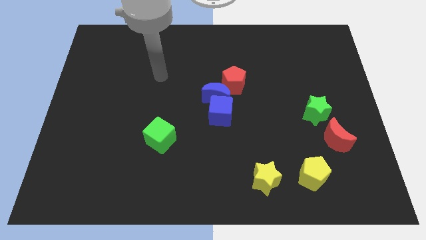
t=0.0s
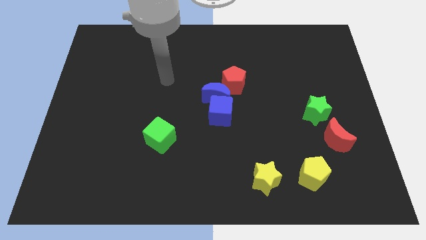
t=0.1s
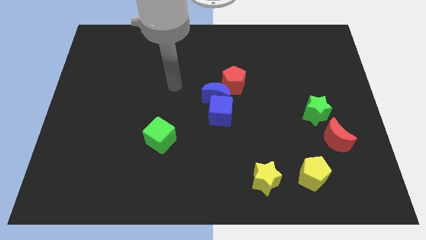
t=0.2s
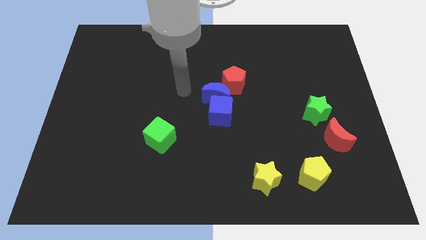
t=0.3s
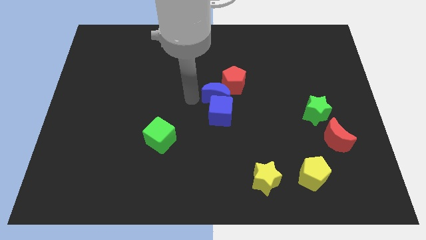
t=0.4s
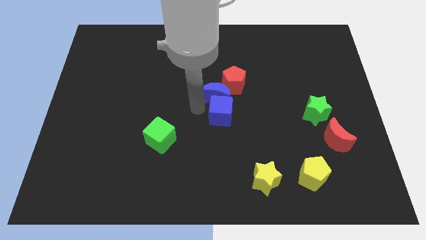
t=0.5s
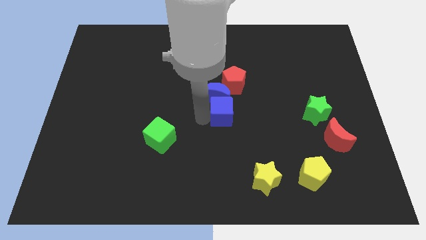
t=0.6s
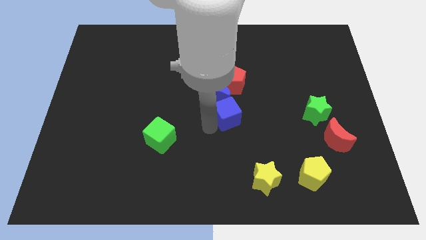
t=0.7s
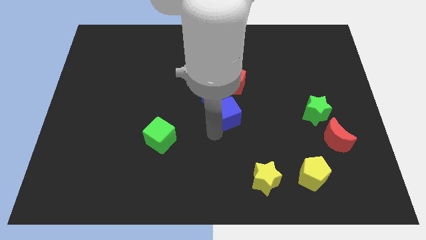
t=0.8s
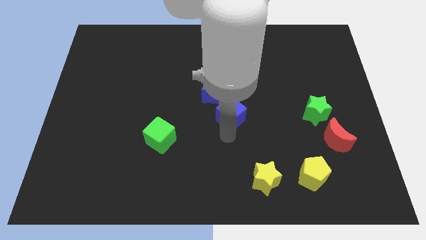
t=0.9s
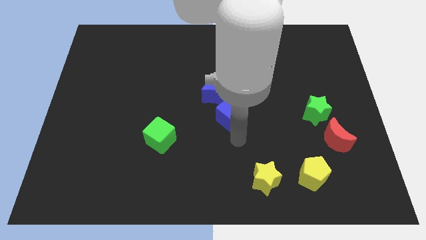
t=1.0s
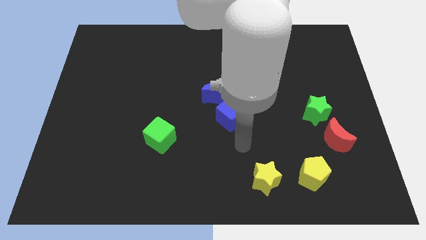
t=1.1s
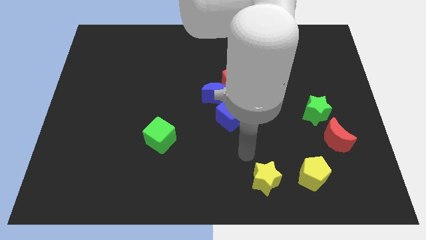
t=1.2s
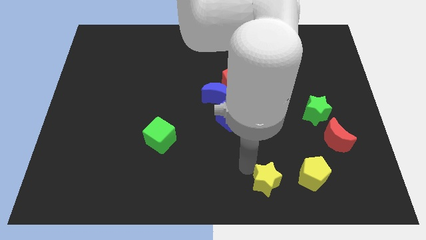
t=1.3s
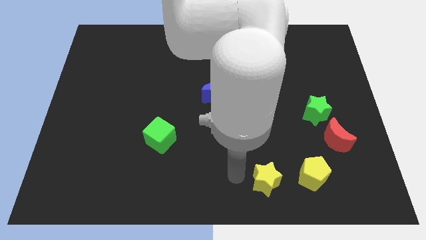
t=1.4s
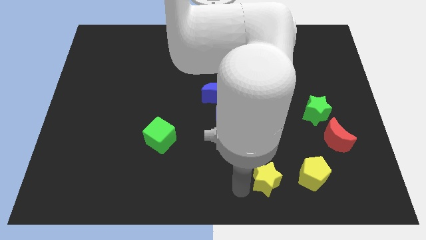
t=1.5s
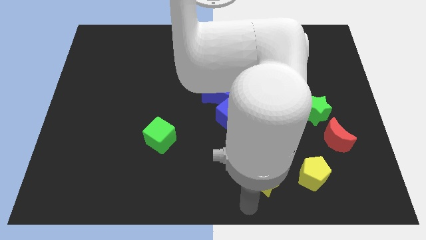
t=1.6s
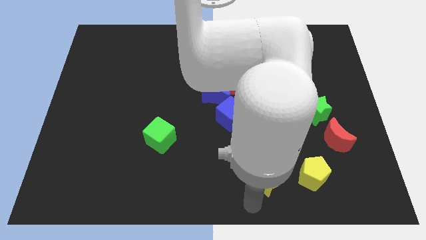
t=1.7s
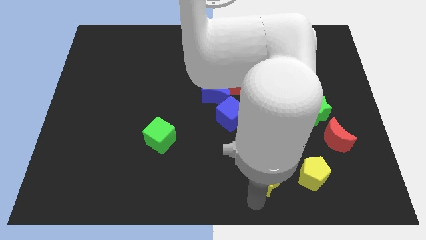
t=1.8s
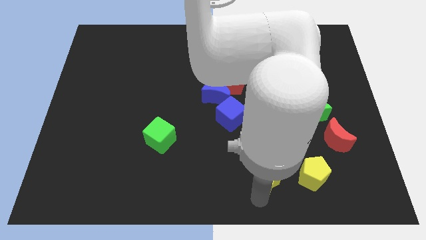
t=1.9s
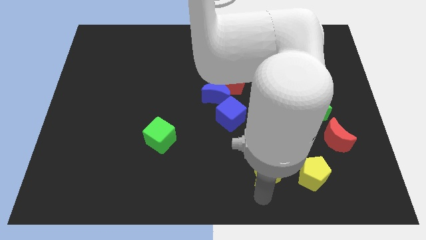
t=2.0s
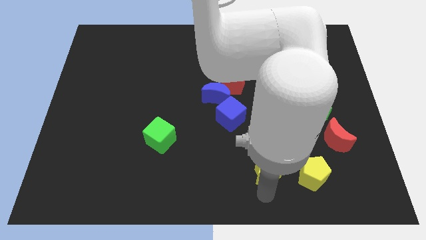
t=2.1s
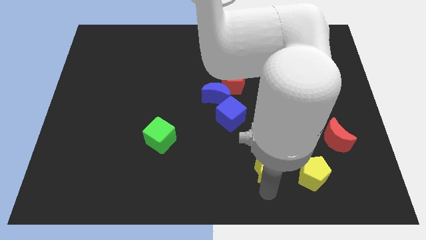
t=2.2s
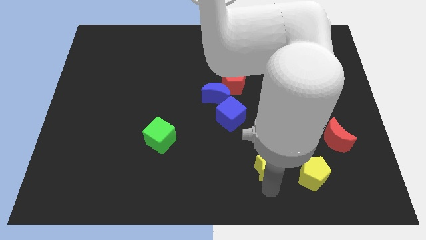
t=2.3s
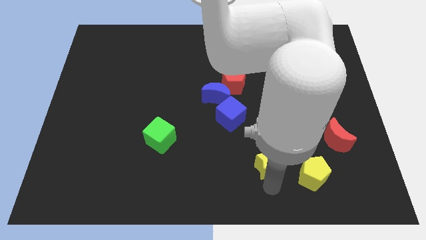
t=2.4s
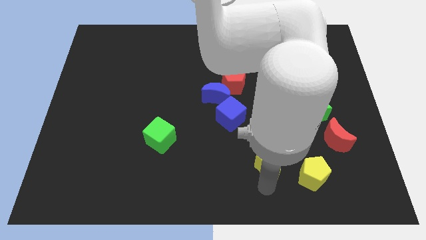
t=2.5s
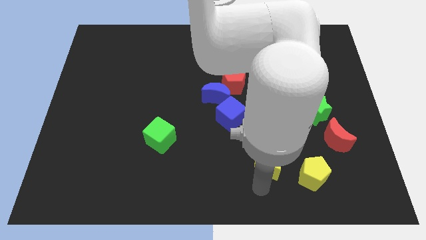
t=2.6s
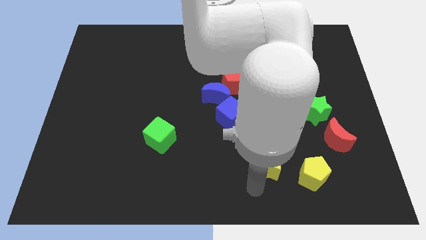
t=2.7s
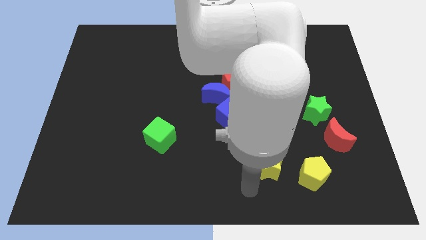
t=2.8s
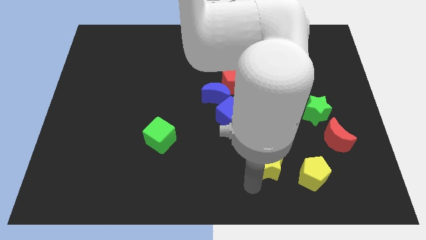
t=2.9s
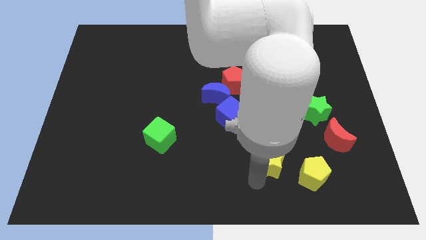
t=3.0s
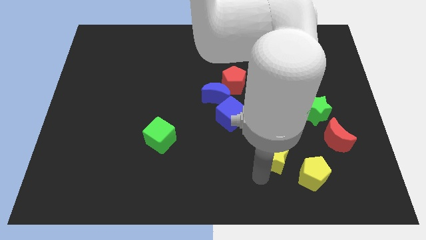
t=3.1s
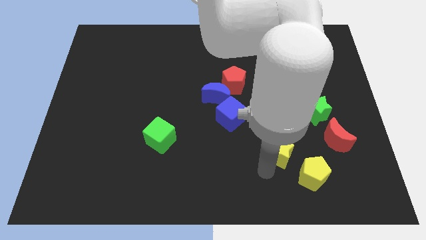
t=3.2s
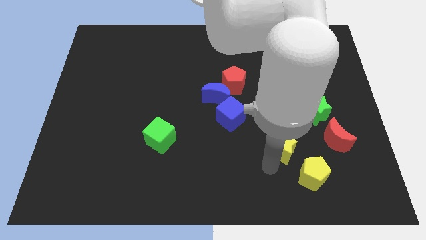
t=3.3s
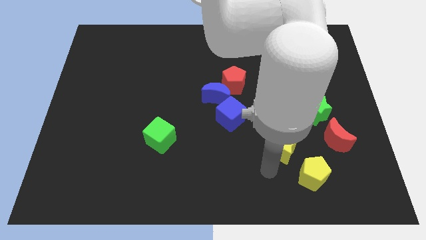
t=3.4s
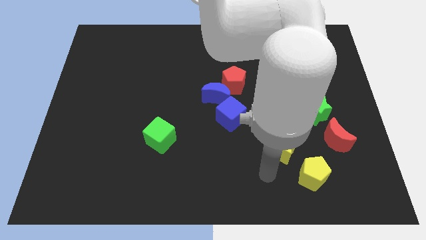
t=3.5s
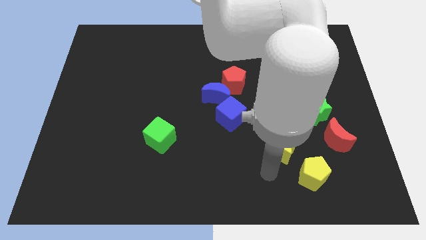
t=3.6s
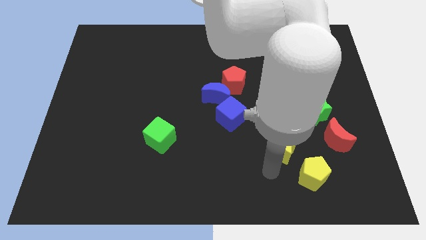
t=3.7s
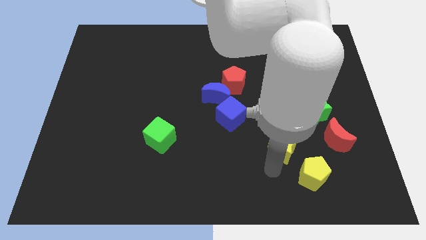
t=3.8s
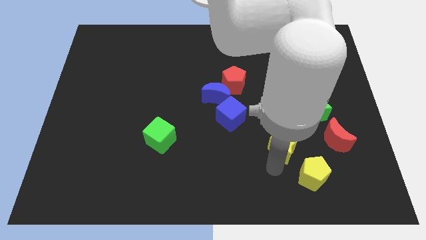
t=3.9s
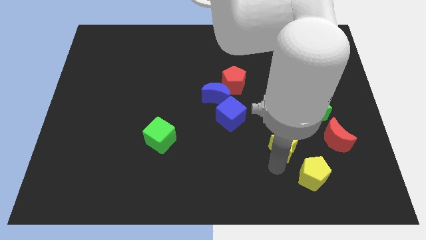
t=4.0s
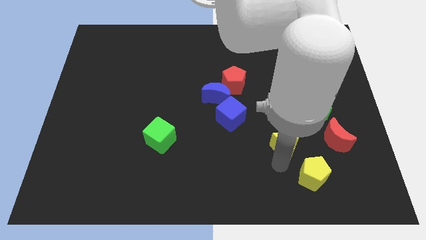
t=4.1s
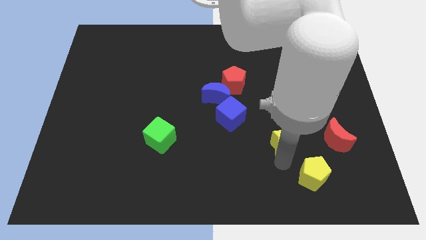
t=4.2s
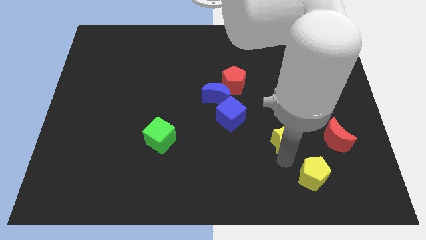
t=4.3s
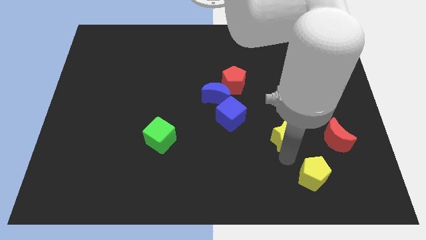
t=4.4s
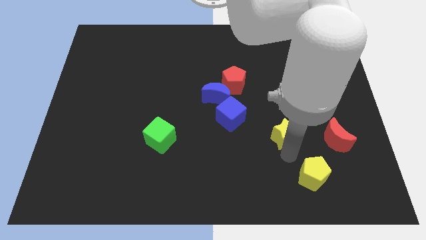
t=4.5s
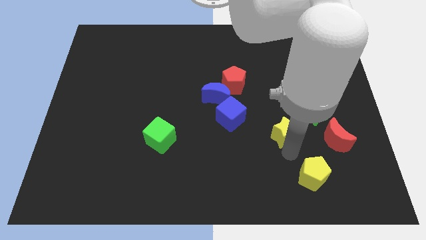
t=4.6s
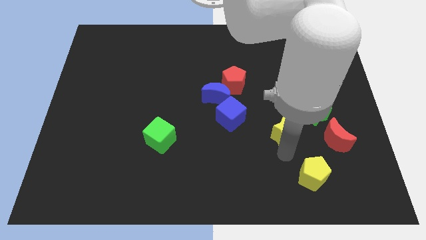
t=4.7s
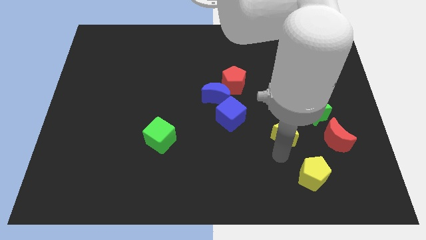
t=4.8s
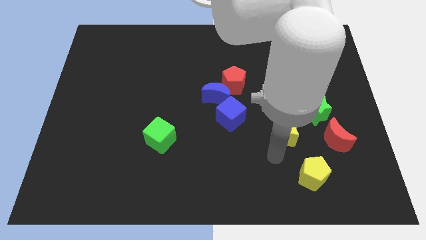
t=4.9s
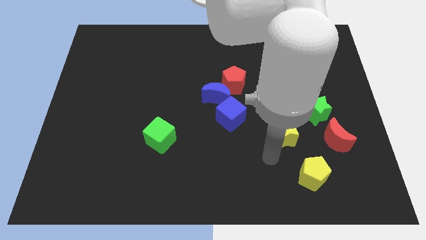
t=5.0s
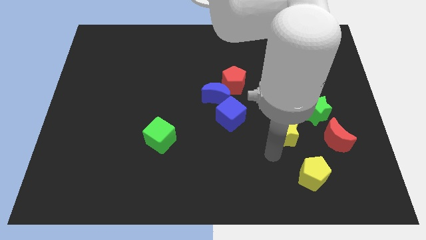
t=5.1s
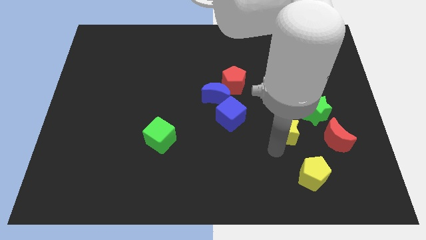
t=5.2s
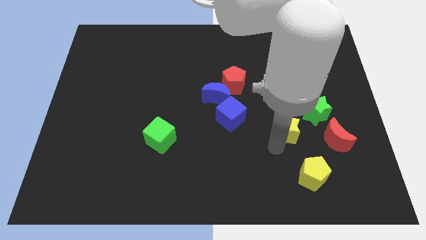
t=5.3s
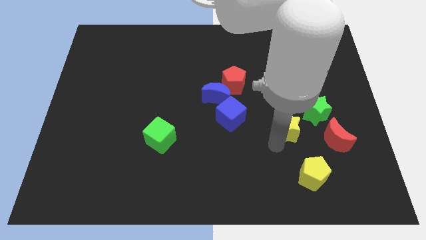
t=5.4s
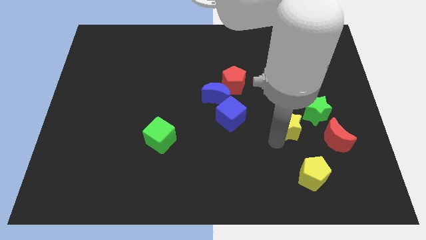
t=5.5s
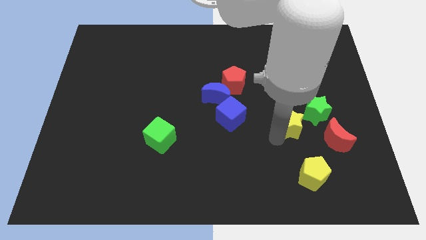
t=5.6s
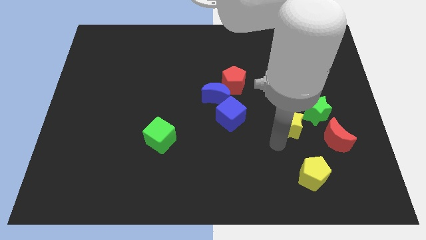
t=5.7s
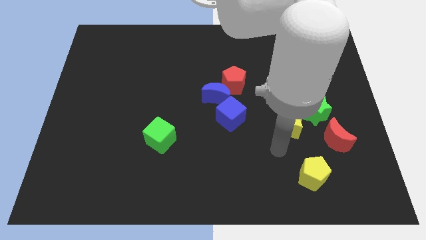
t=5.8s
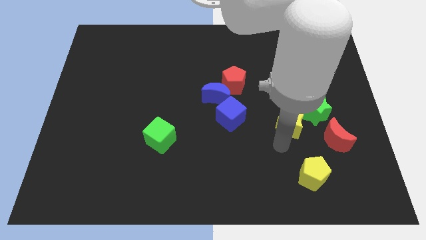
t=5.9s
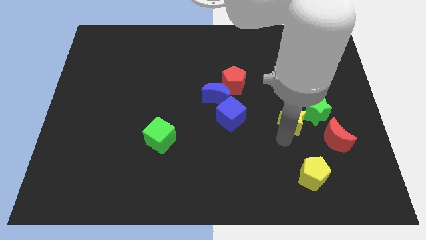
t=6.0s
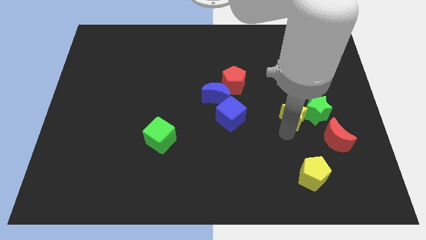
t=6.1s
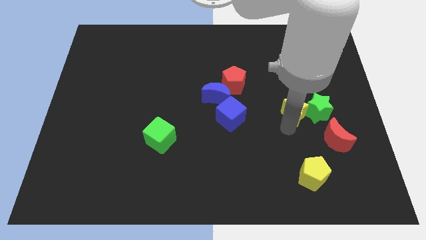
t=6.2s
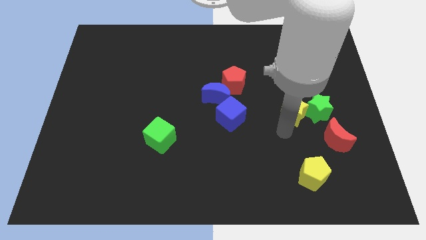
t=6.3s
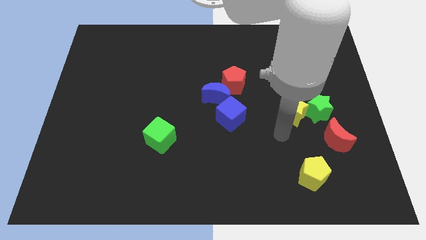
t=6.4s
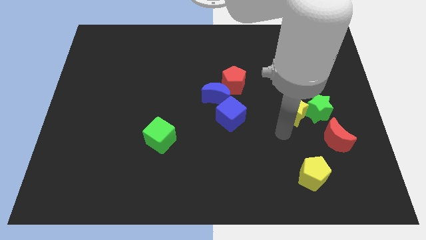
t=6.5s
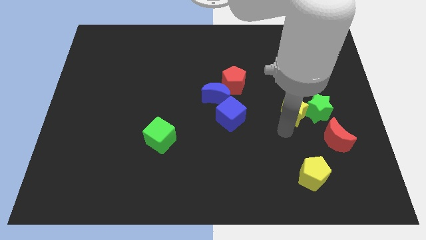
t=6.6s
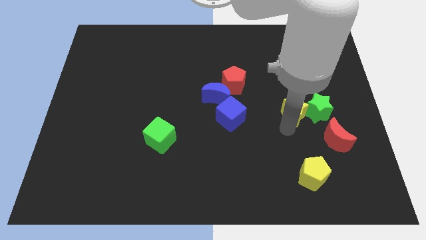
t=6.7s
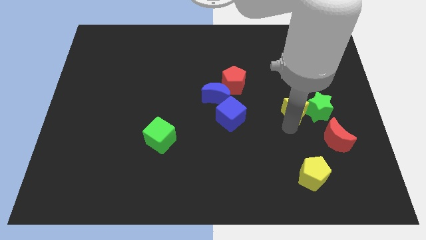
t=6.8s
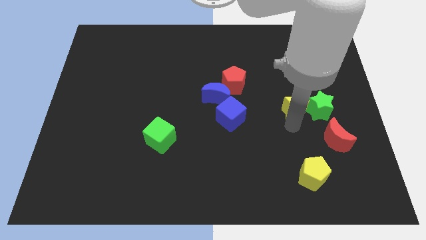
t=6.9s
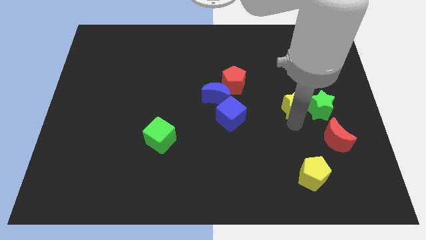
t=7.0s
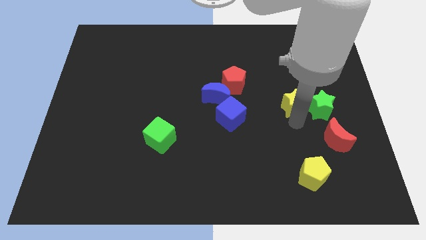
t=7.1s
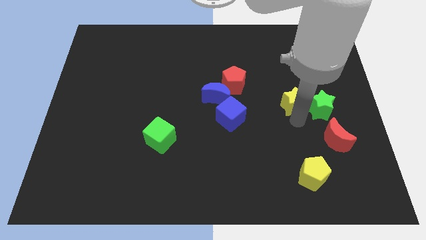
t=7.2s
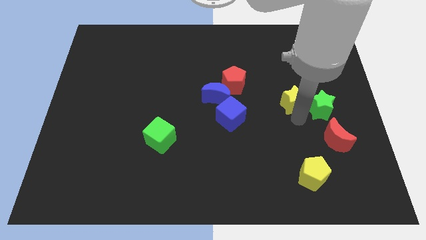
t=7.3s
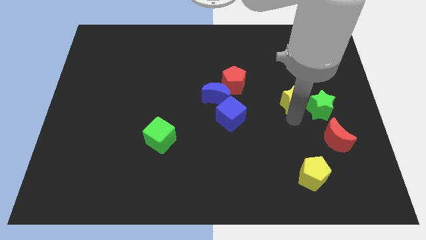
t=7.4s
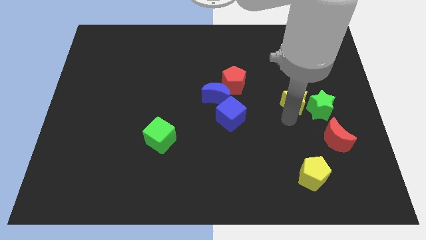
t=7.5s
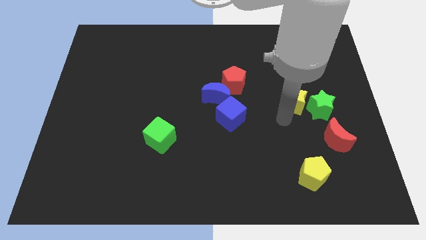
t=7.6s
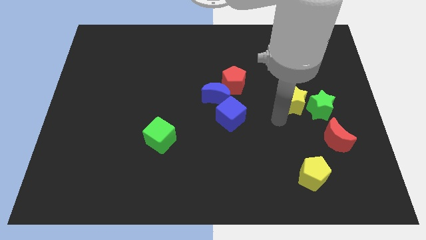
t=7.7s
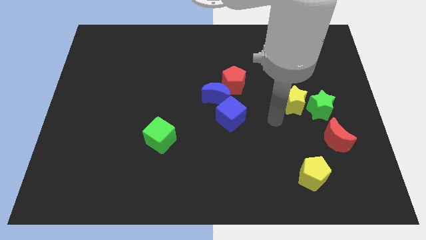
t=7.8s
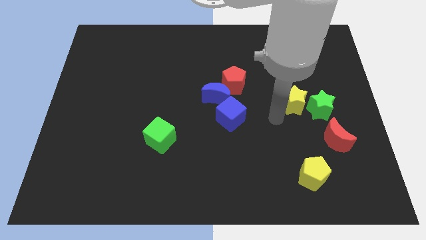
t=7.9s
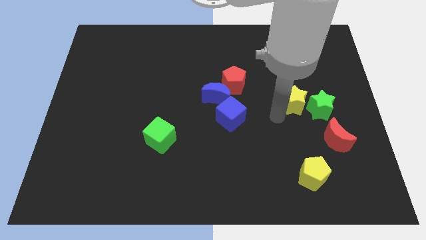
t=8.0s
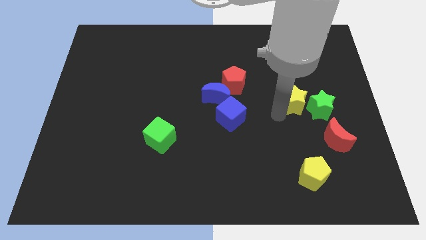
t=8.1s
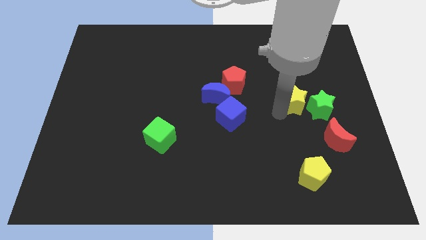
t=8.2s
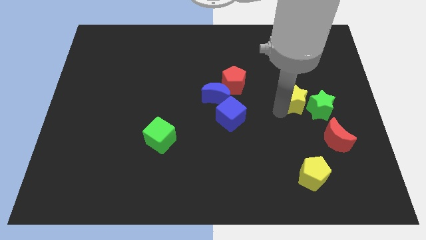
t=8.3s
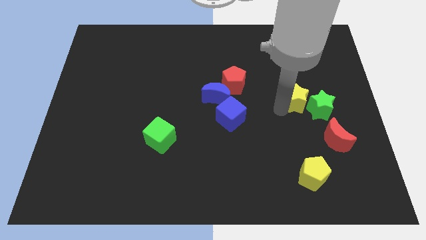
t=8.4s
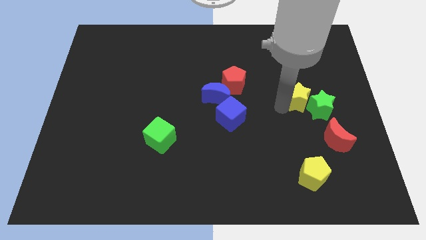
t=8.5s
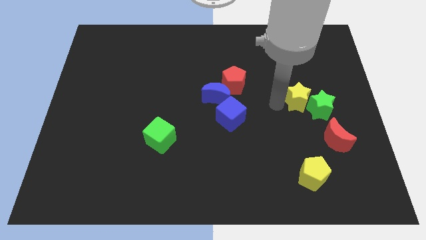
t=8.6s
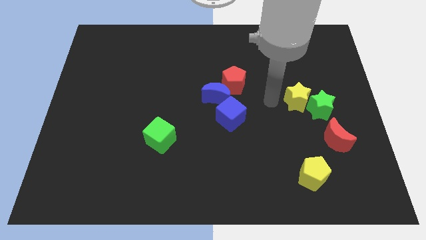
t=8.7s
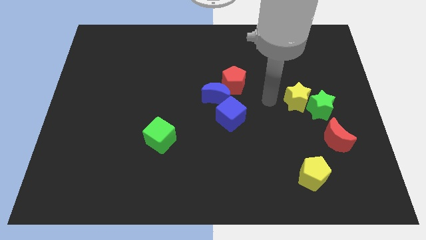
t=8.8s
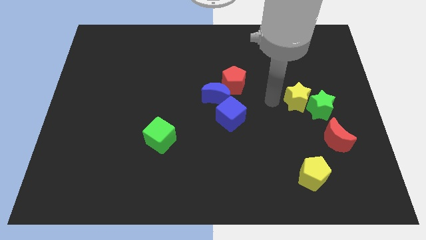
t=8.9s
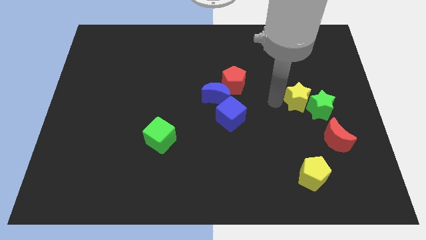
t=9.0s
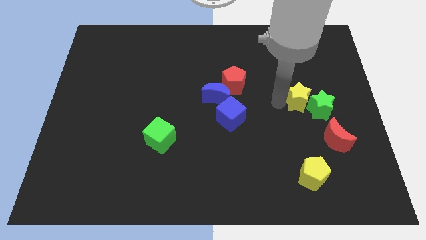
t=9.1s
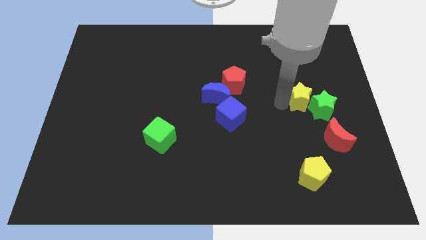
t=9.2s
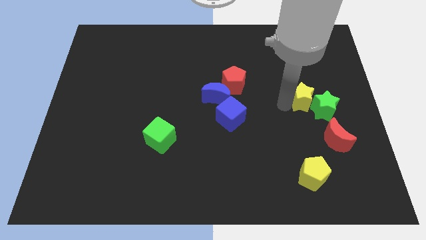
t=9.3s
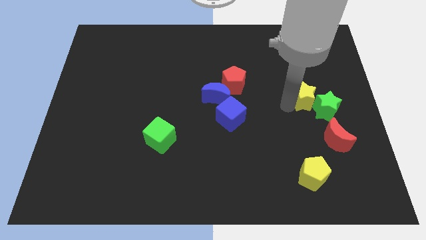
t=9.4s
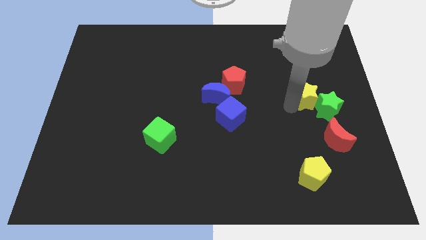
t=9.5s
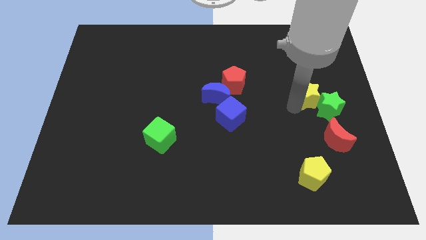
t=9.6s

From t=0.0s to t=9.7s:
move the yellow star to the top side of the red moon
